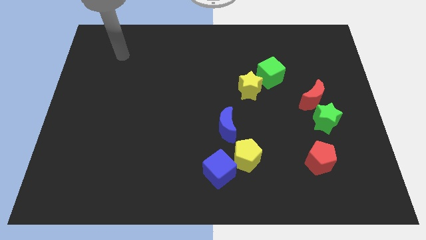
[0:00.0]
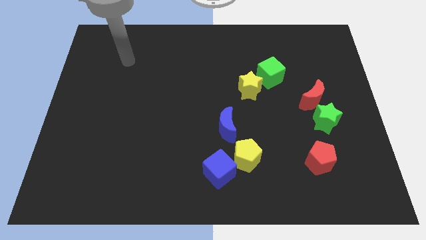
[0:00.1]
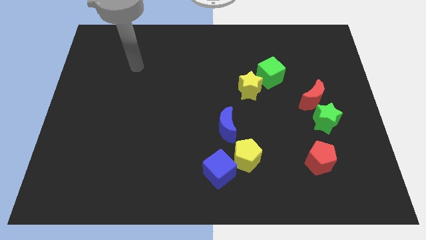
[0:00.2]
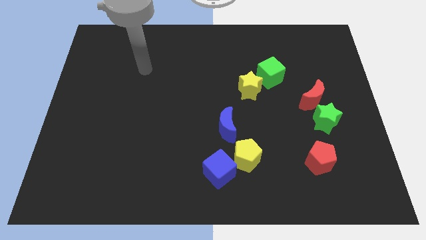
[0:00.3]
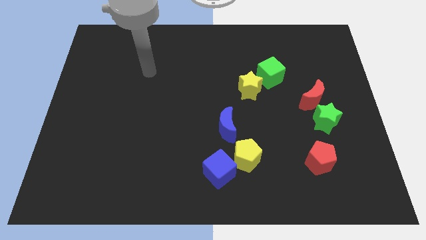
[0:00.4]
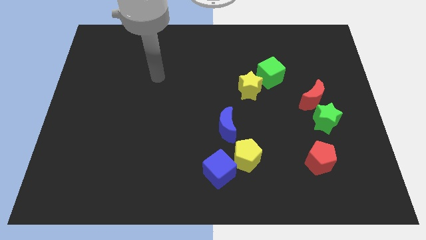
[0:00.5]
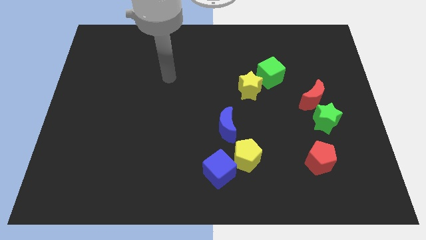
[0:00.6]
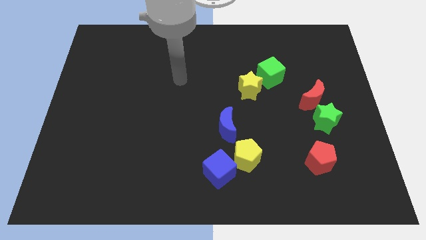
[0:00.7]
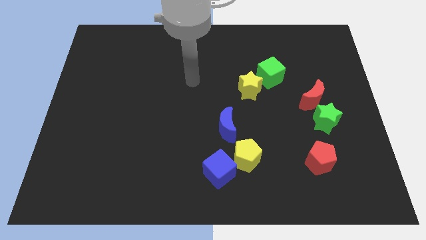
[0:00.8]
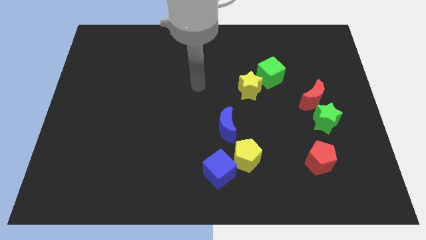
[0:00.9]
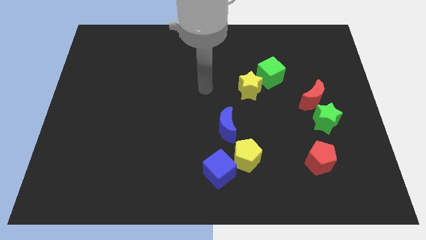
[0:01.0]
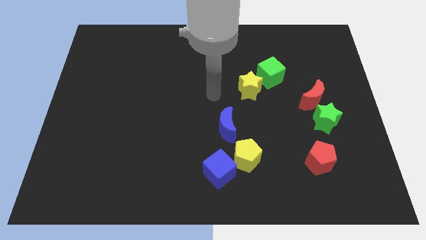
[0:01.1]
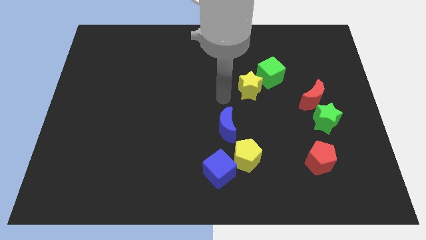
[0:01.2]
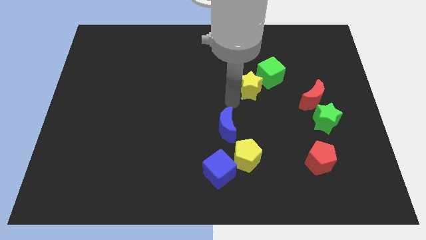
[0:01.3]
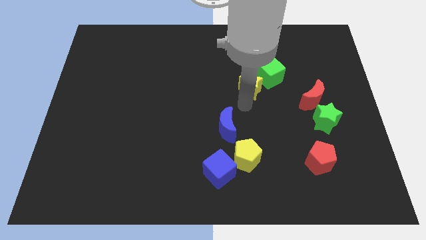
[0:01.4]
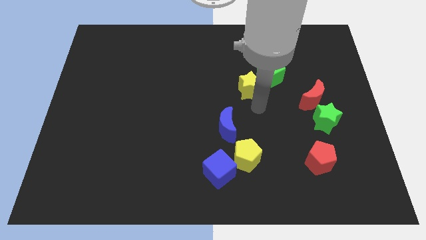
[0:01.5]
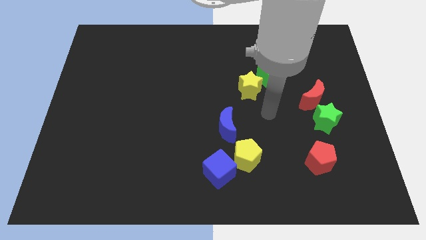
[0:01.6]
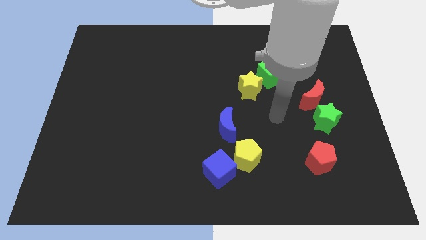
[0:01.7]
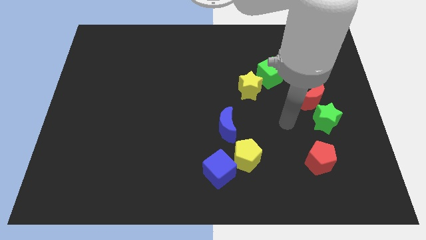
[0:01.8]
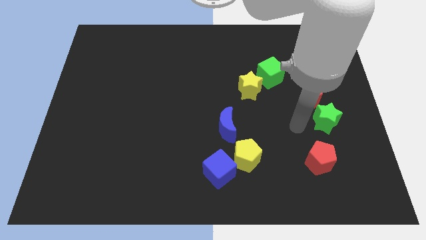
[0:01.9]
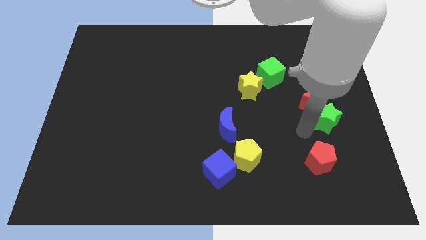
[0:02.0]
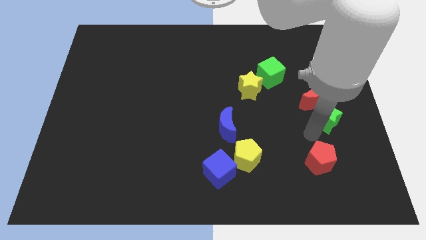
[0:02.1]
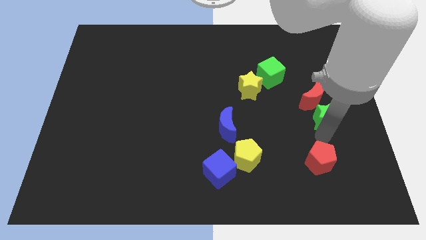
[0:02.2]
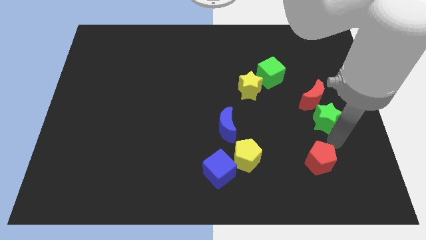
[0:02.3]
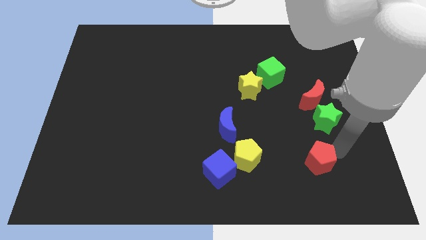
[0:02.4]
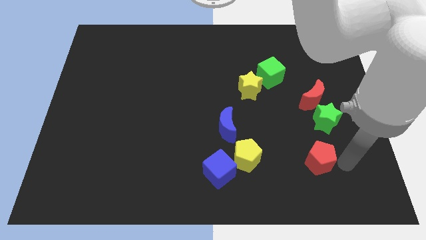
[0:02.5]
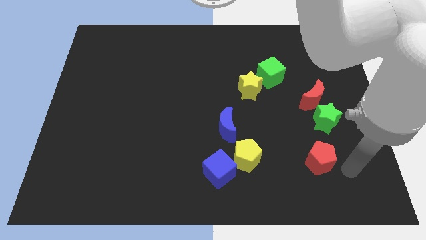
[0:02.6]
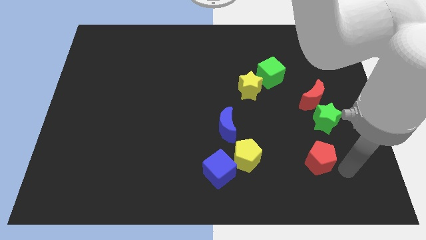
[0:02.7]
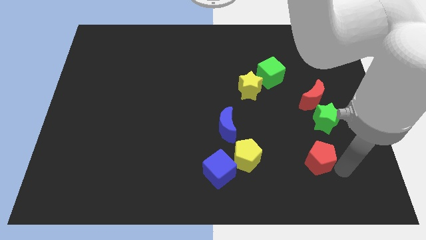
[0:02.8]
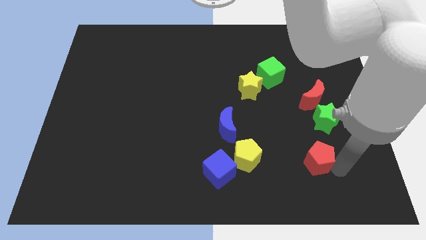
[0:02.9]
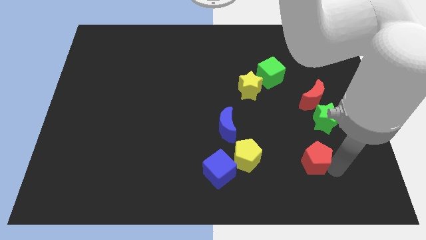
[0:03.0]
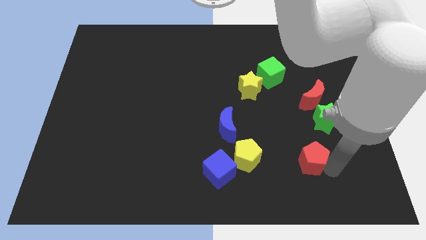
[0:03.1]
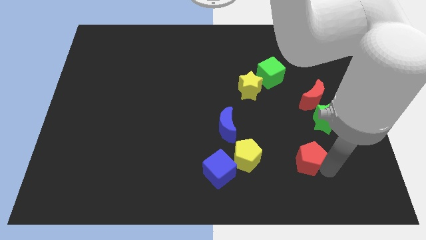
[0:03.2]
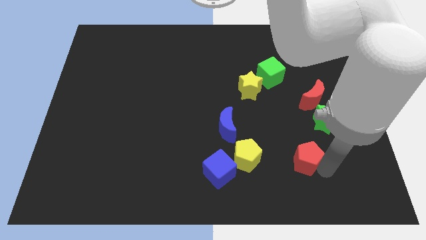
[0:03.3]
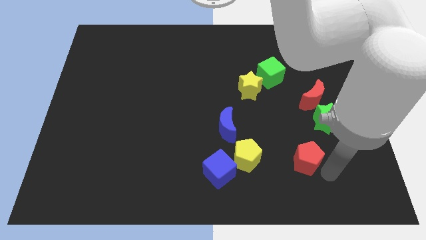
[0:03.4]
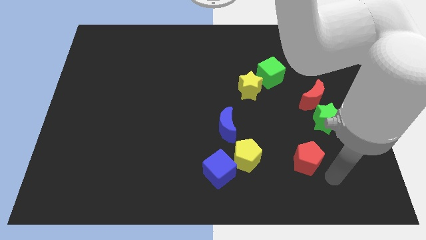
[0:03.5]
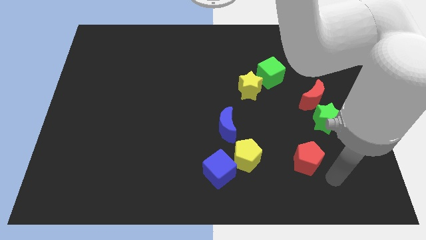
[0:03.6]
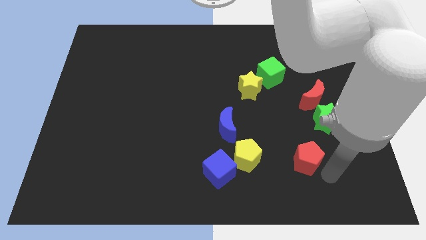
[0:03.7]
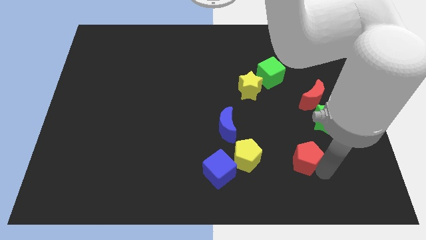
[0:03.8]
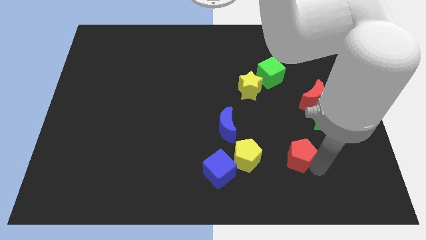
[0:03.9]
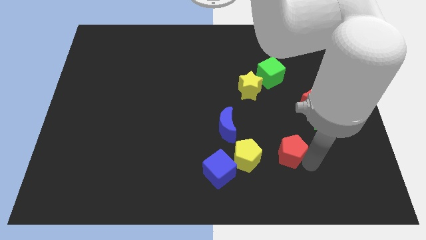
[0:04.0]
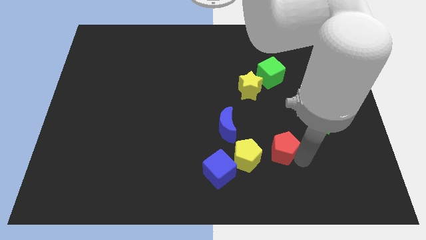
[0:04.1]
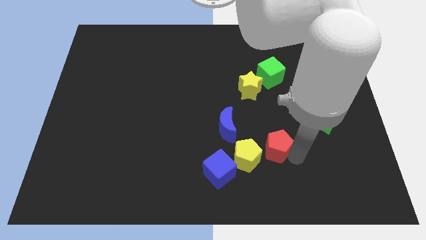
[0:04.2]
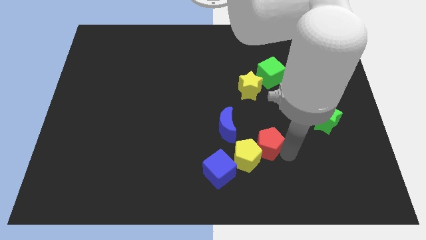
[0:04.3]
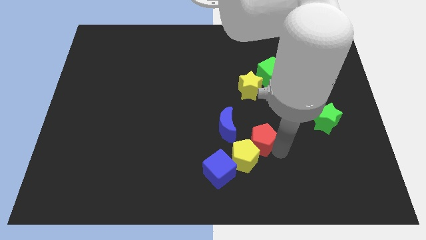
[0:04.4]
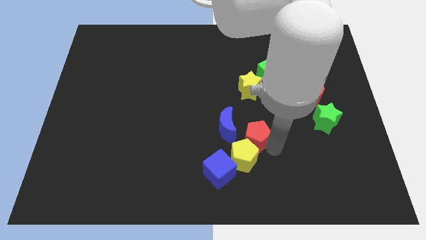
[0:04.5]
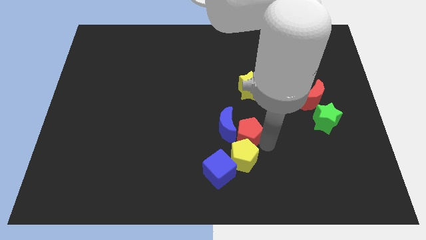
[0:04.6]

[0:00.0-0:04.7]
move the red pentagon to the blue moon

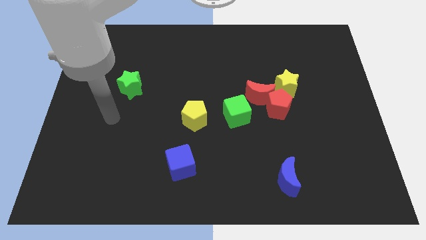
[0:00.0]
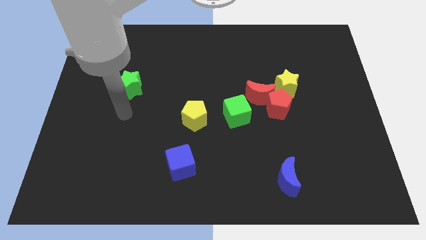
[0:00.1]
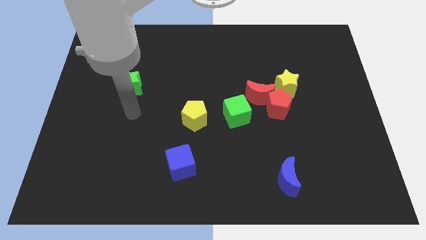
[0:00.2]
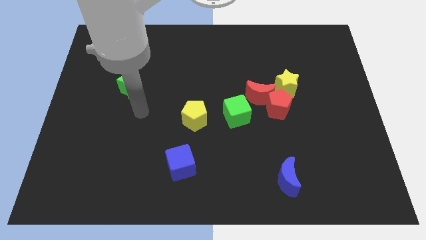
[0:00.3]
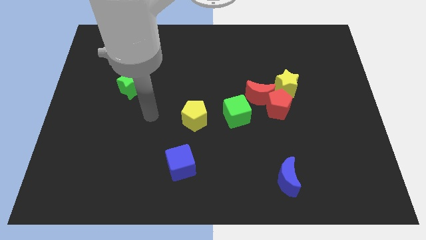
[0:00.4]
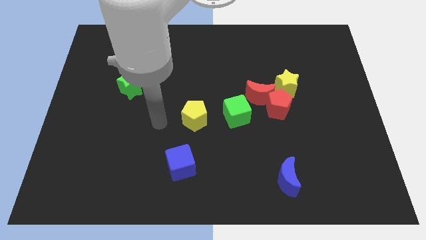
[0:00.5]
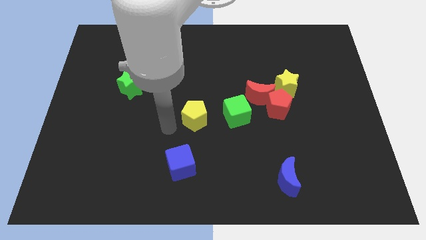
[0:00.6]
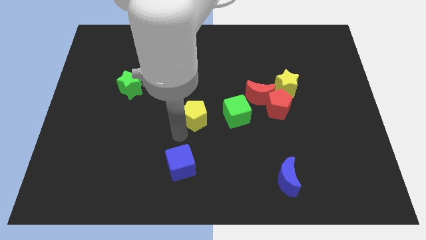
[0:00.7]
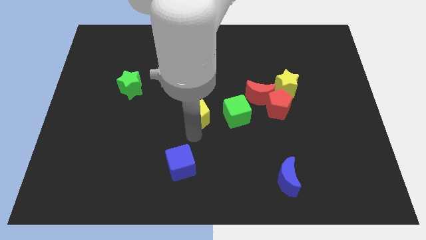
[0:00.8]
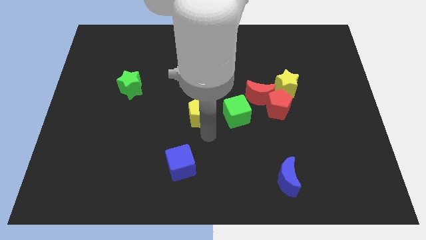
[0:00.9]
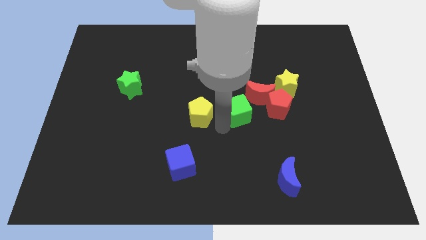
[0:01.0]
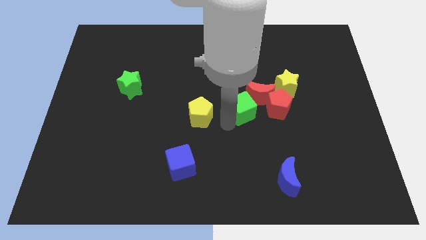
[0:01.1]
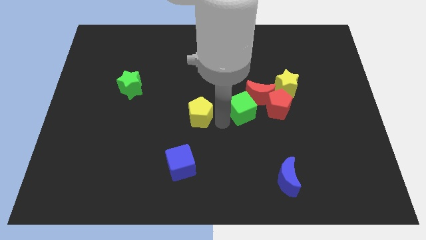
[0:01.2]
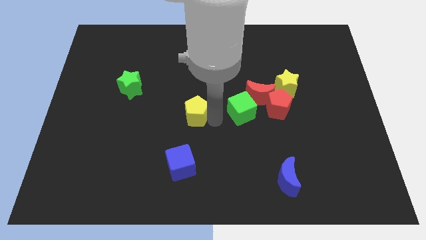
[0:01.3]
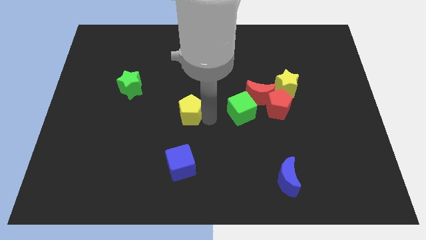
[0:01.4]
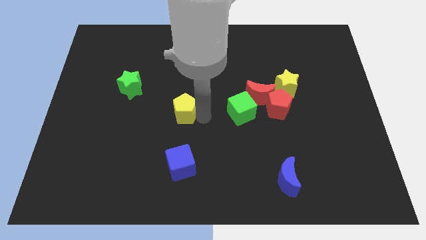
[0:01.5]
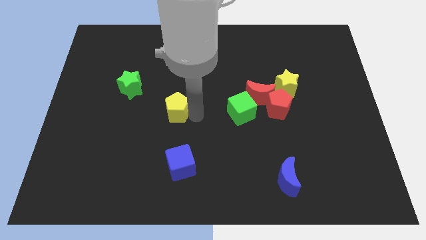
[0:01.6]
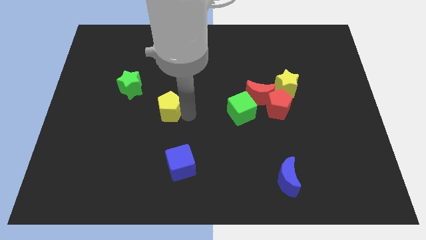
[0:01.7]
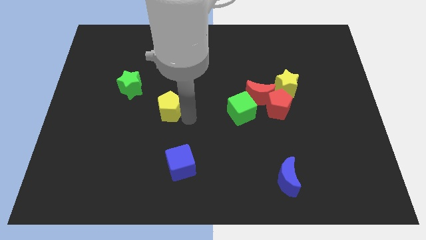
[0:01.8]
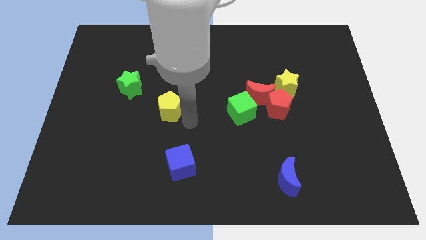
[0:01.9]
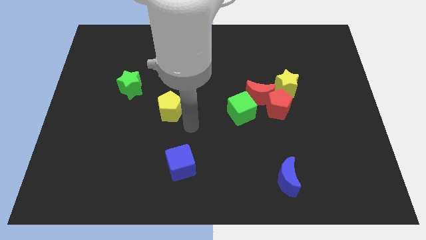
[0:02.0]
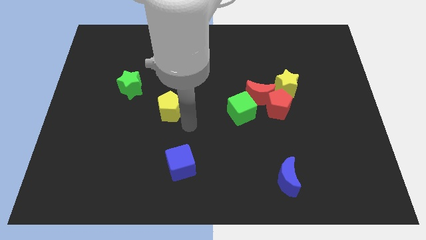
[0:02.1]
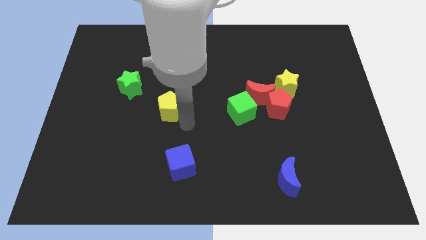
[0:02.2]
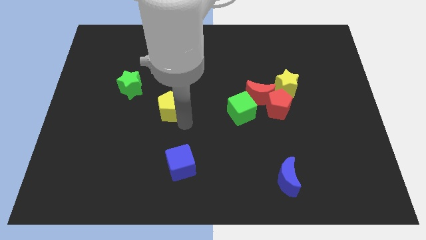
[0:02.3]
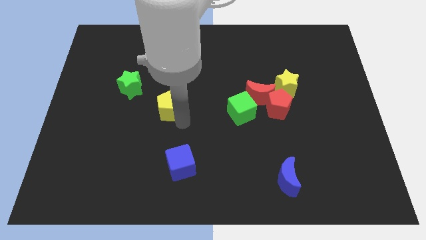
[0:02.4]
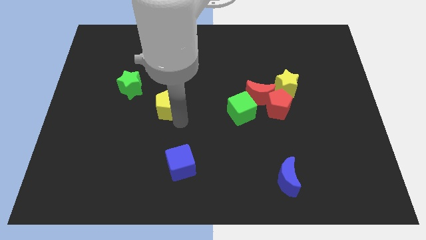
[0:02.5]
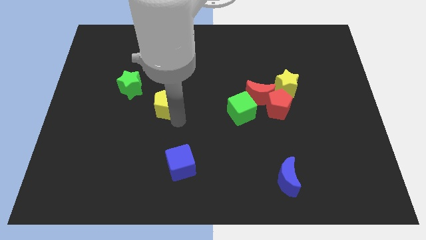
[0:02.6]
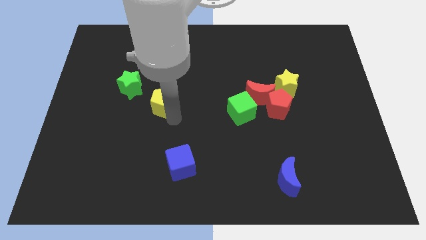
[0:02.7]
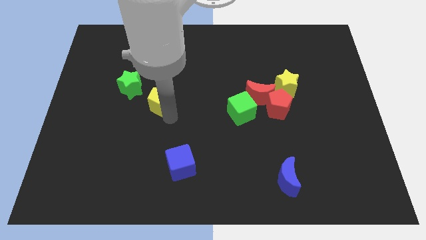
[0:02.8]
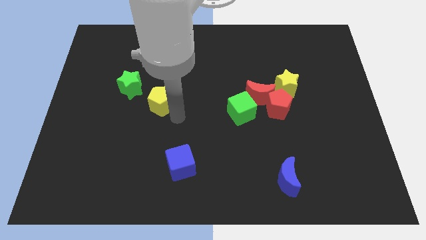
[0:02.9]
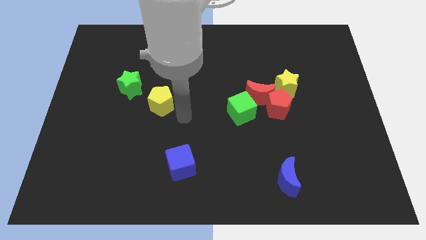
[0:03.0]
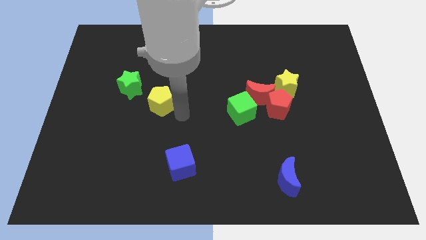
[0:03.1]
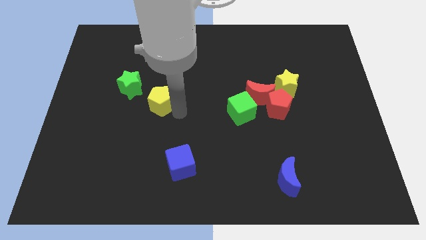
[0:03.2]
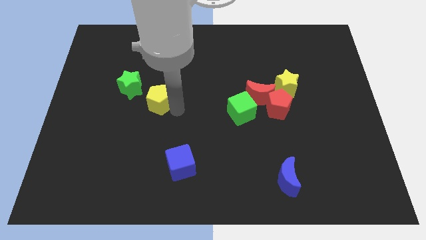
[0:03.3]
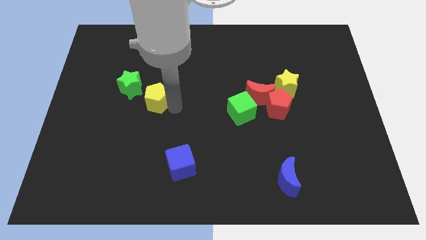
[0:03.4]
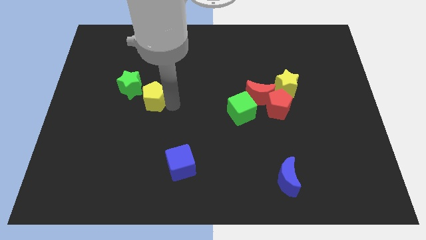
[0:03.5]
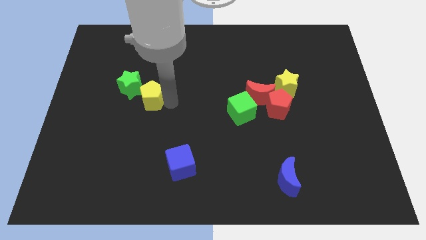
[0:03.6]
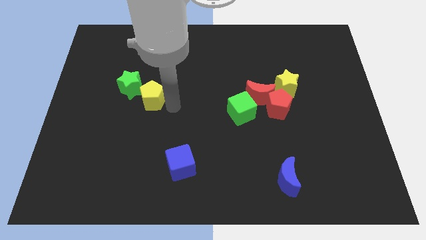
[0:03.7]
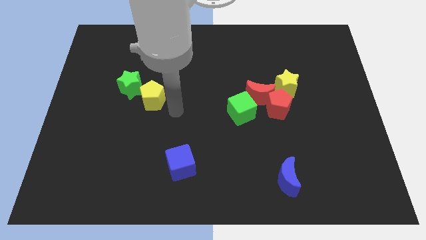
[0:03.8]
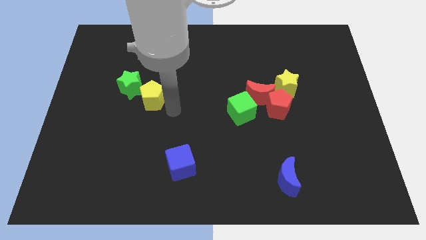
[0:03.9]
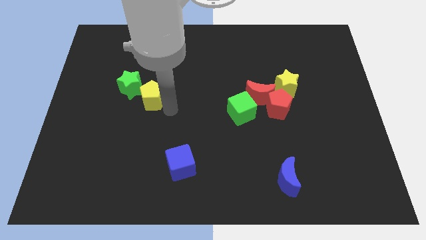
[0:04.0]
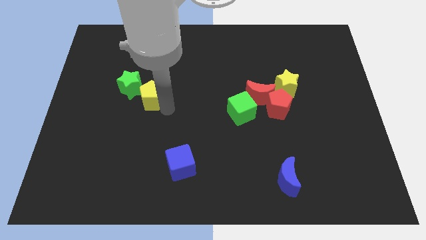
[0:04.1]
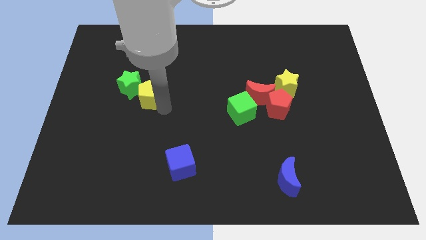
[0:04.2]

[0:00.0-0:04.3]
move the yellow pentagon towards the green star
